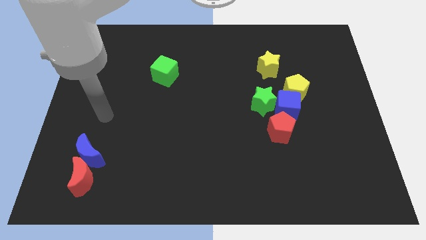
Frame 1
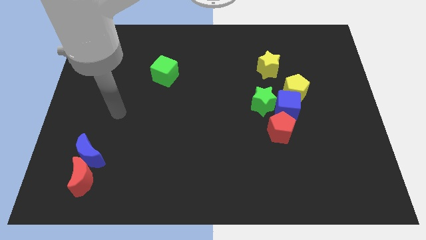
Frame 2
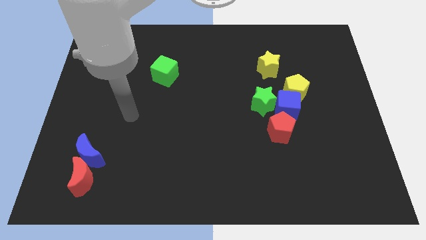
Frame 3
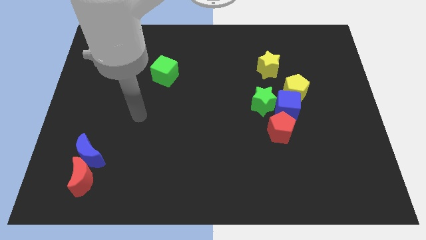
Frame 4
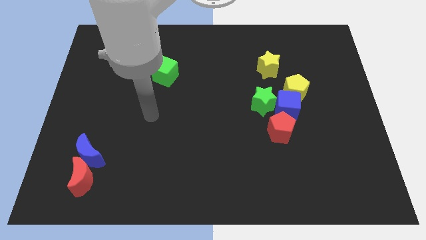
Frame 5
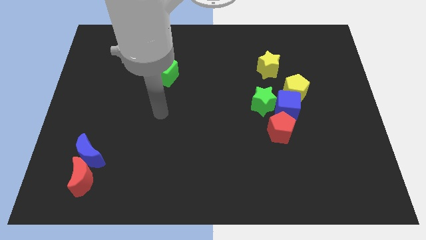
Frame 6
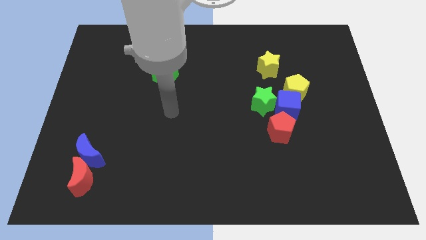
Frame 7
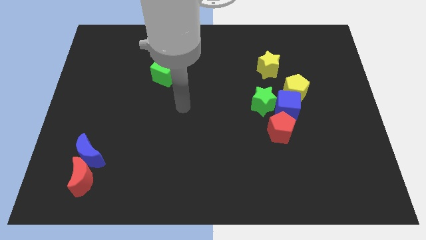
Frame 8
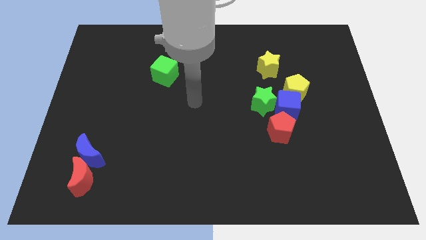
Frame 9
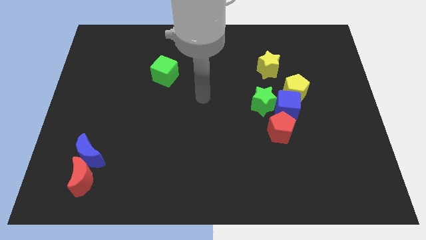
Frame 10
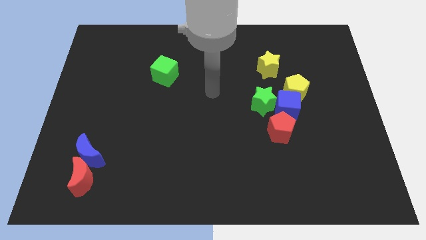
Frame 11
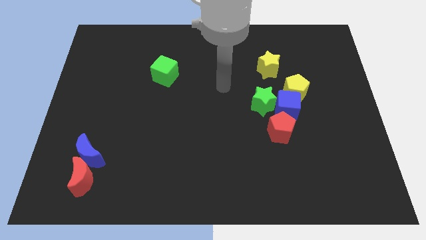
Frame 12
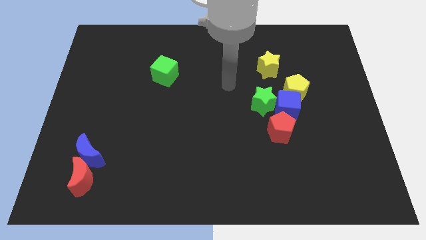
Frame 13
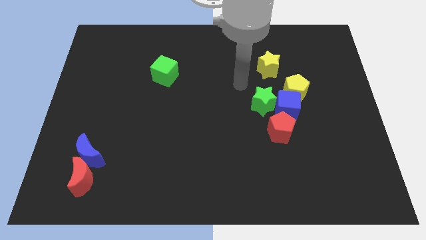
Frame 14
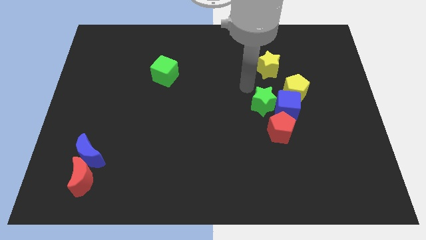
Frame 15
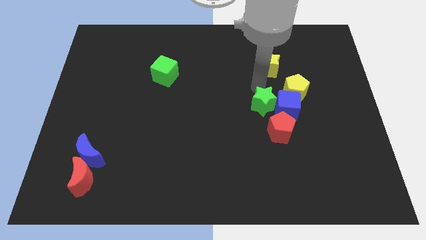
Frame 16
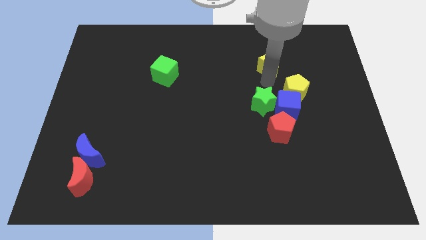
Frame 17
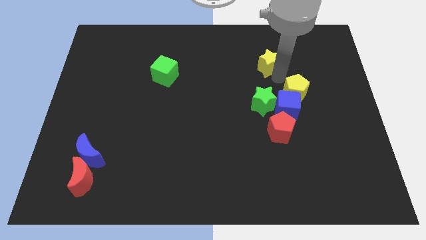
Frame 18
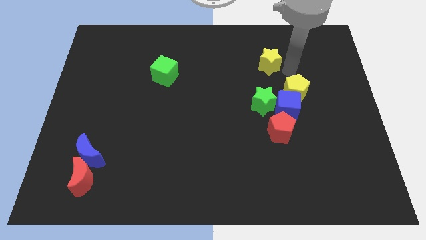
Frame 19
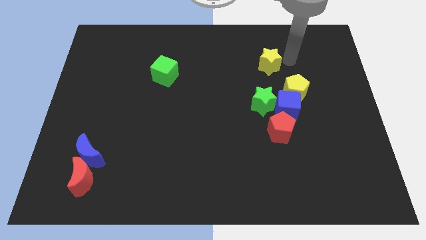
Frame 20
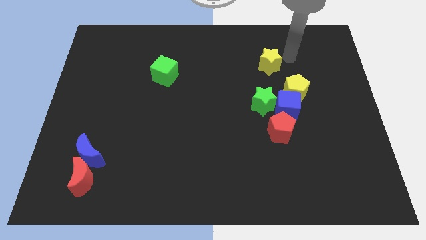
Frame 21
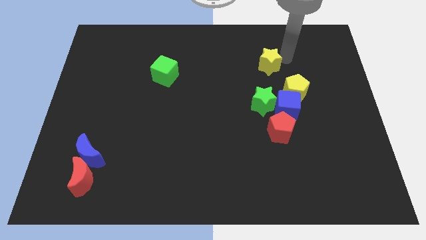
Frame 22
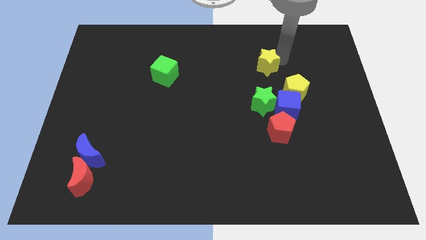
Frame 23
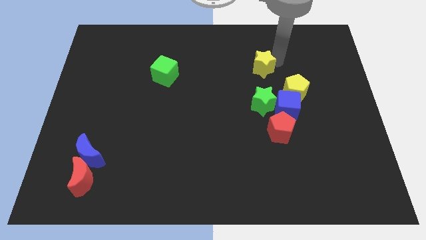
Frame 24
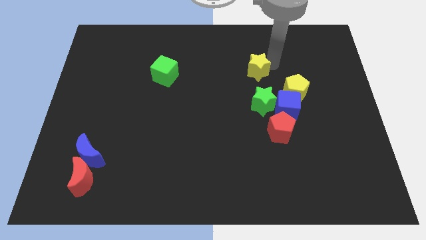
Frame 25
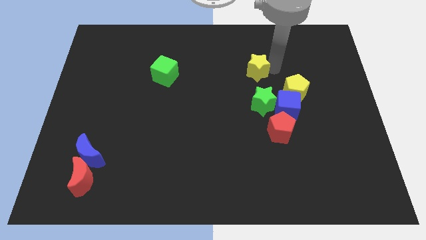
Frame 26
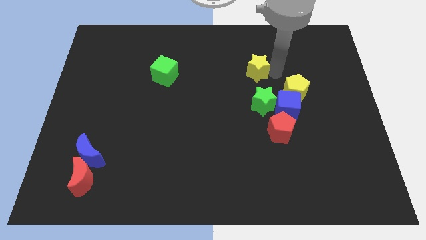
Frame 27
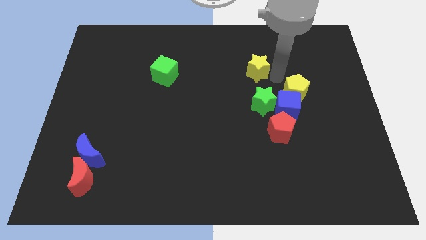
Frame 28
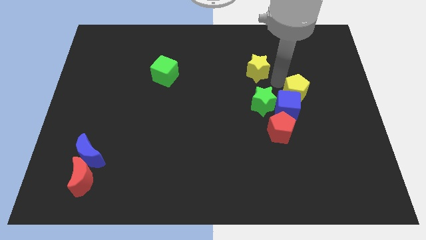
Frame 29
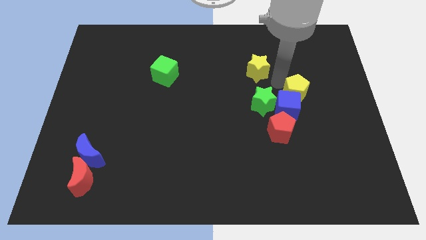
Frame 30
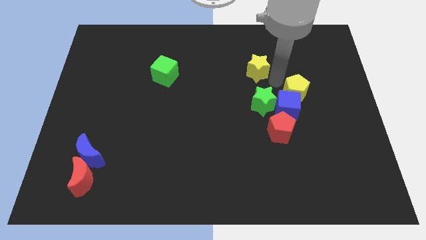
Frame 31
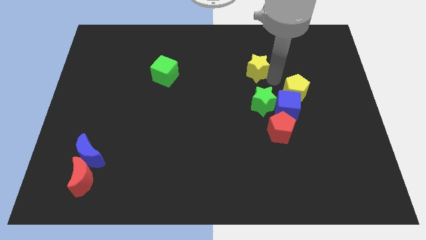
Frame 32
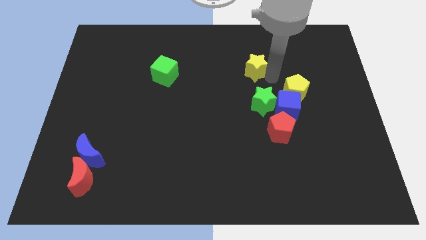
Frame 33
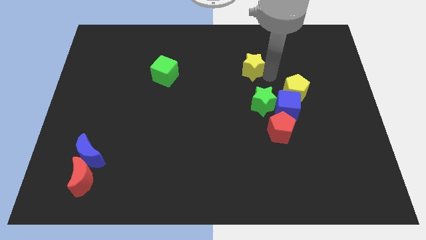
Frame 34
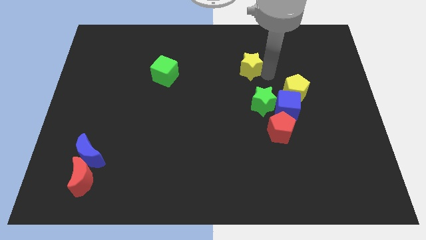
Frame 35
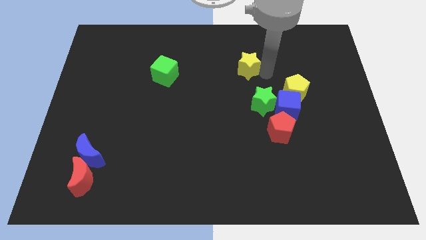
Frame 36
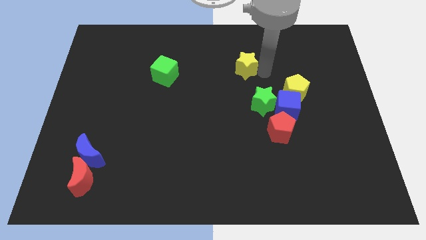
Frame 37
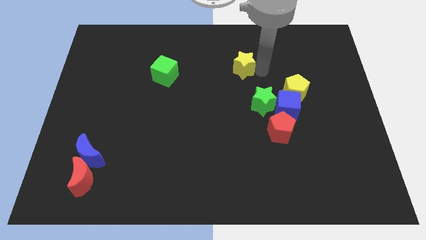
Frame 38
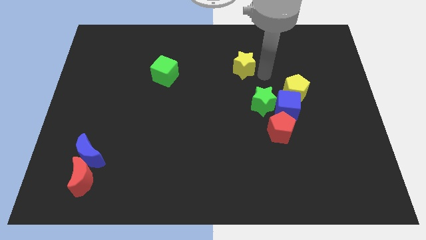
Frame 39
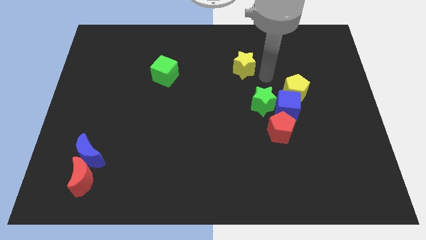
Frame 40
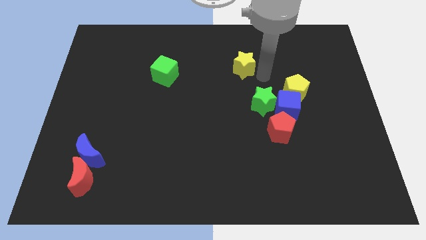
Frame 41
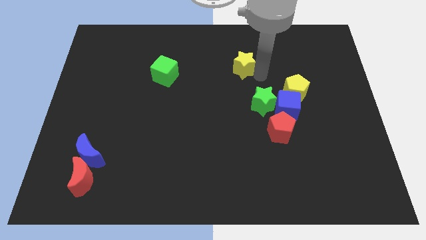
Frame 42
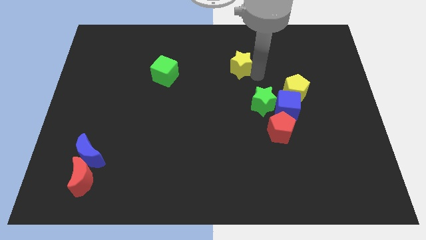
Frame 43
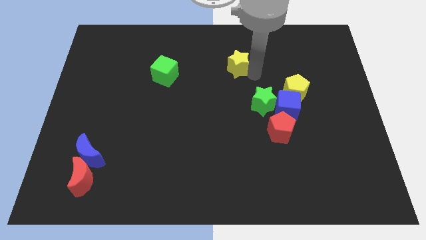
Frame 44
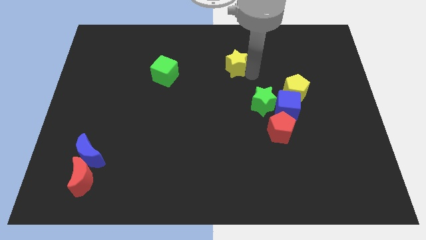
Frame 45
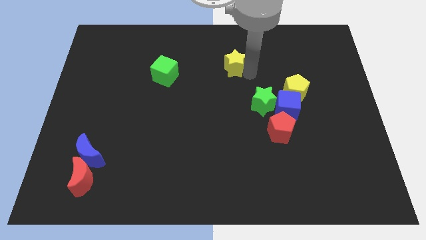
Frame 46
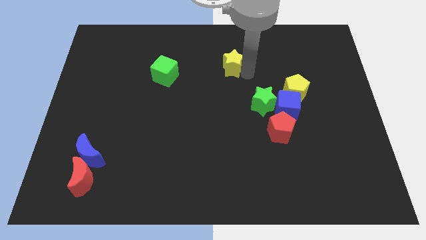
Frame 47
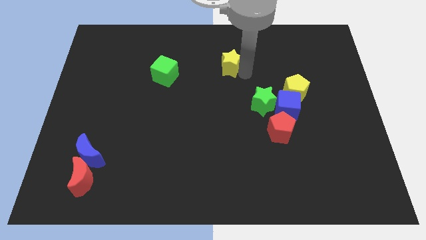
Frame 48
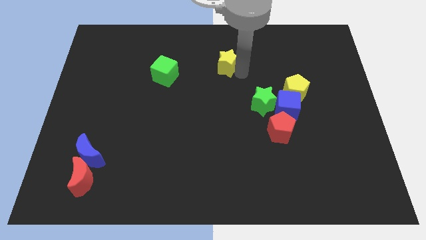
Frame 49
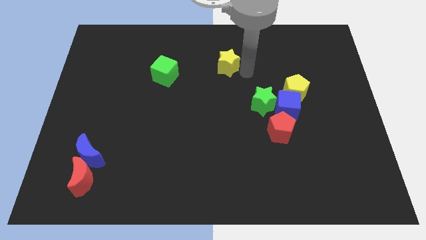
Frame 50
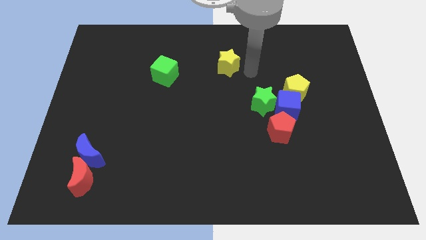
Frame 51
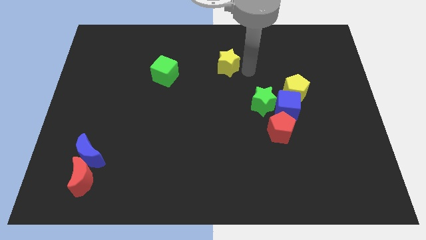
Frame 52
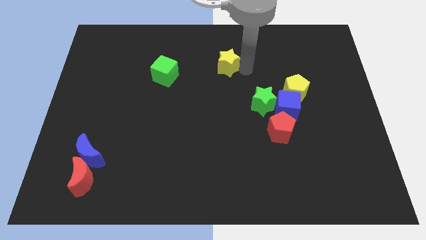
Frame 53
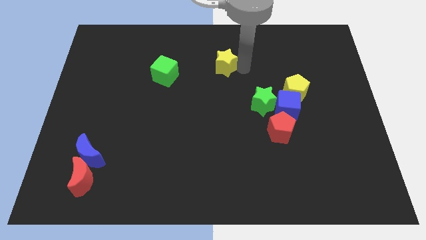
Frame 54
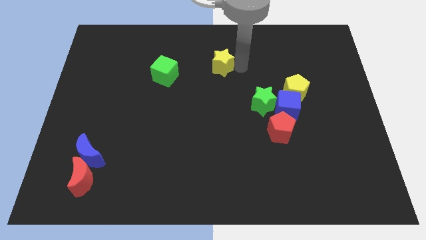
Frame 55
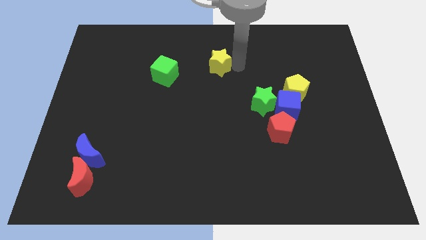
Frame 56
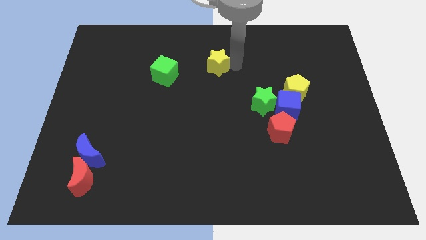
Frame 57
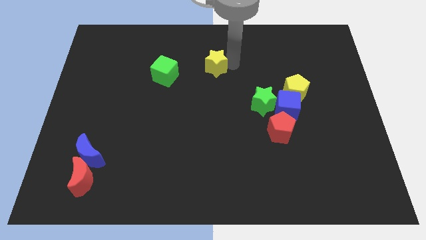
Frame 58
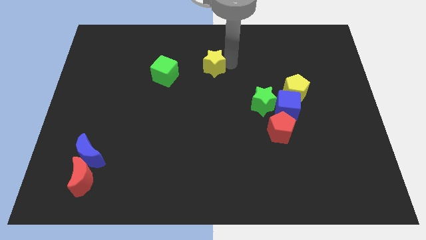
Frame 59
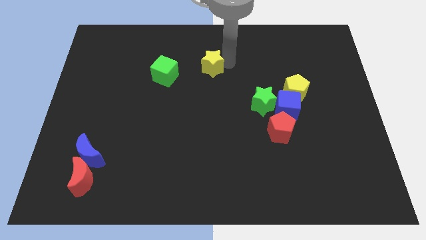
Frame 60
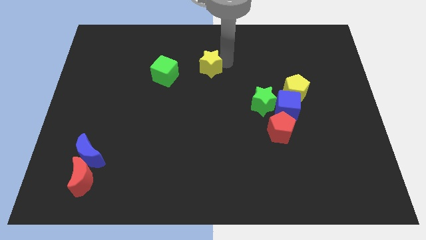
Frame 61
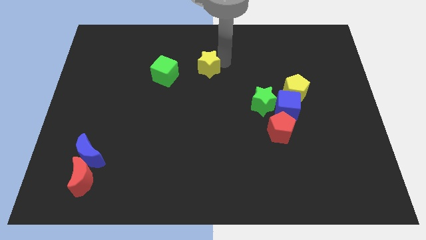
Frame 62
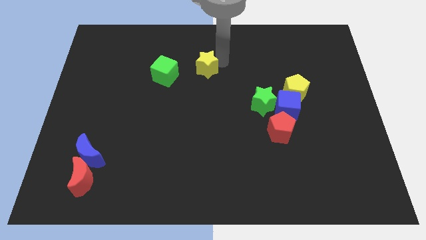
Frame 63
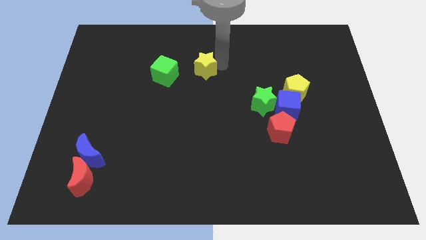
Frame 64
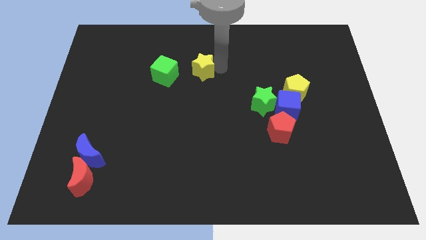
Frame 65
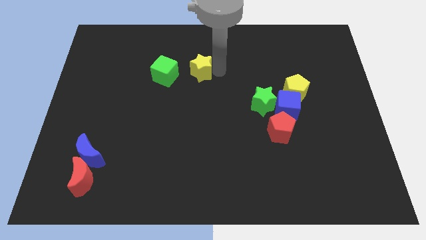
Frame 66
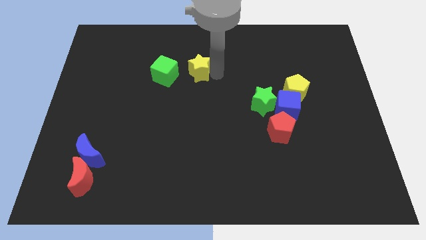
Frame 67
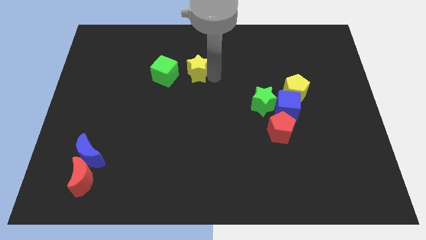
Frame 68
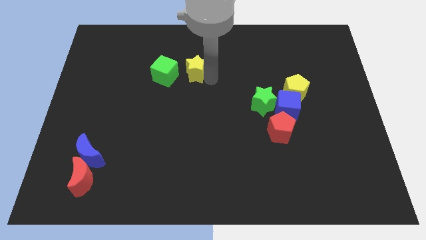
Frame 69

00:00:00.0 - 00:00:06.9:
put the yellow star to the top right of the green cube

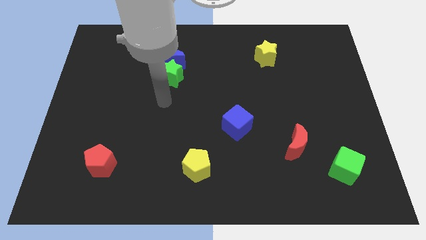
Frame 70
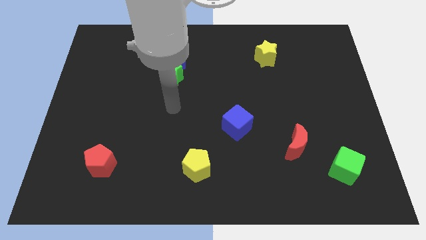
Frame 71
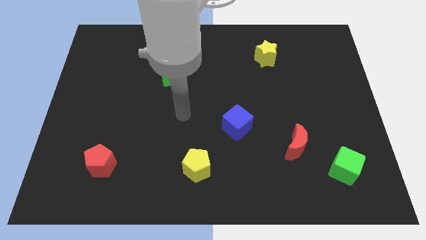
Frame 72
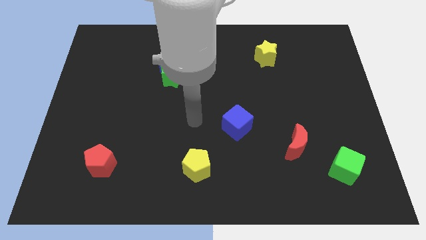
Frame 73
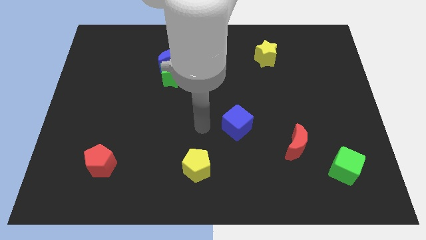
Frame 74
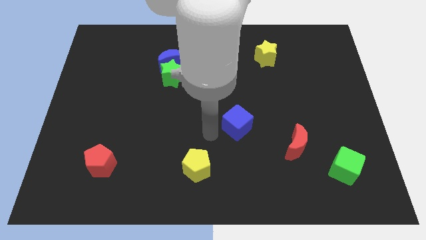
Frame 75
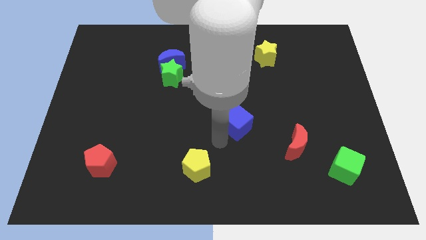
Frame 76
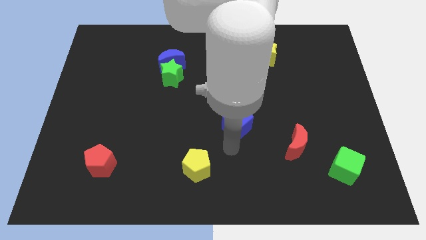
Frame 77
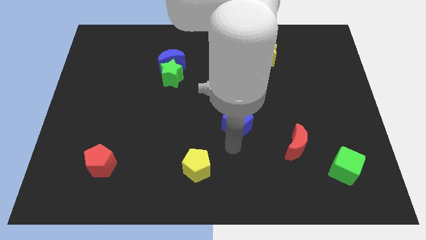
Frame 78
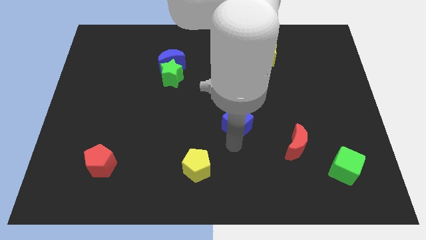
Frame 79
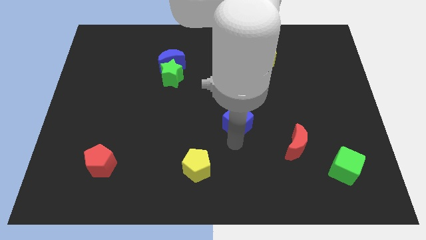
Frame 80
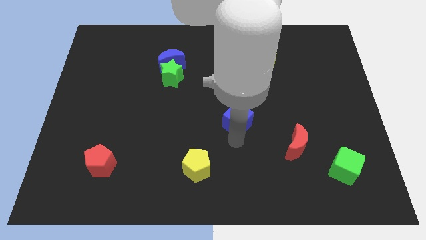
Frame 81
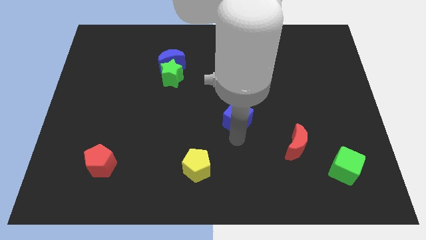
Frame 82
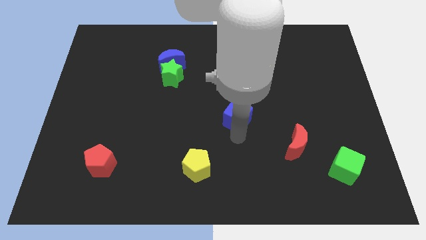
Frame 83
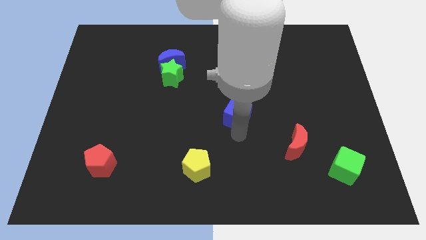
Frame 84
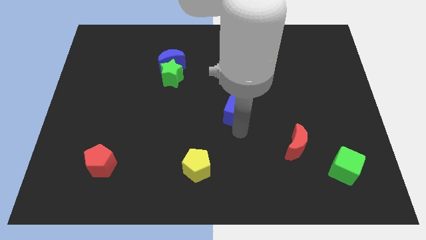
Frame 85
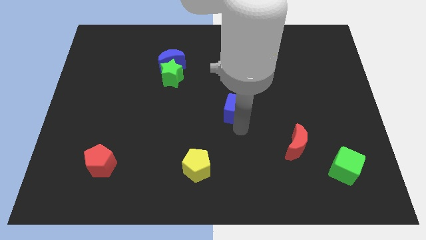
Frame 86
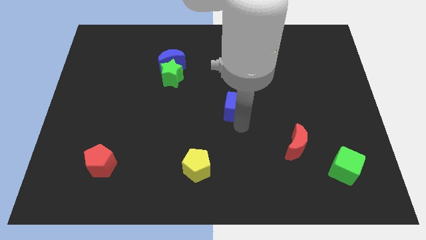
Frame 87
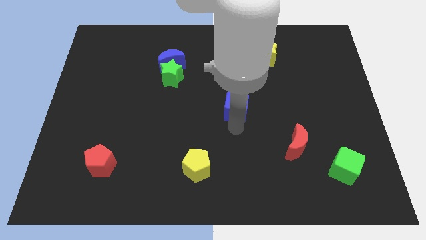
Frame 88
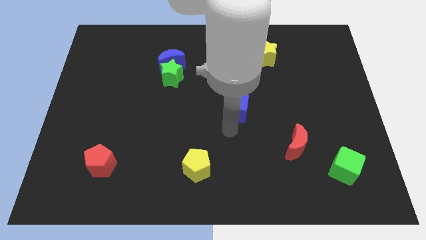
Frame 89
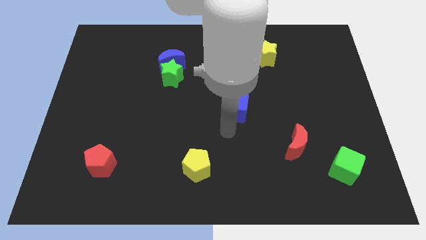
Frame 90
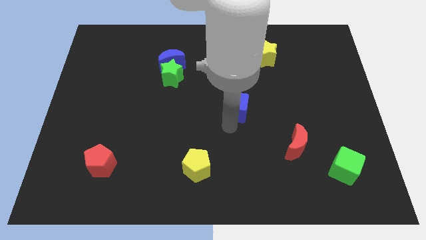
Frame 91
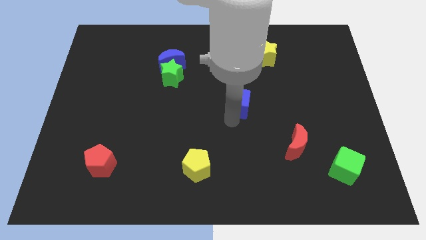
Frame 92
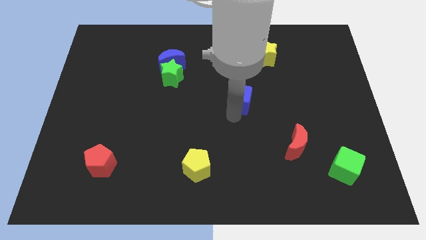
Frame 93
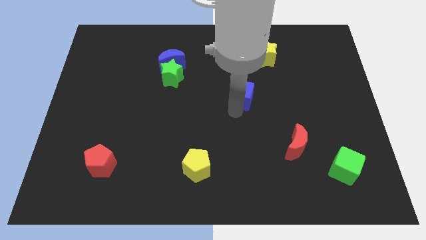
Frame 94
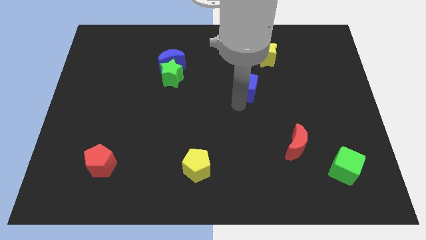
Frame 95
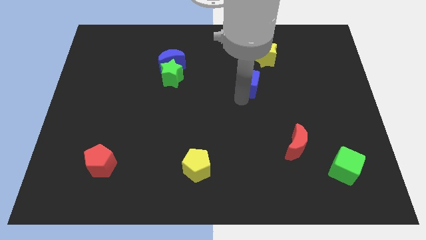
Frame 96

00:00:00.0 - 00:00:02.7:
slide the blue cube diagonally down and to the left of the yellow star
